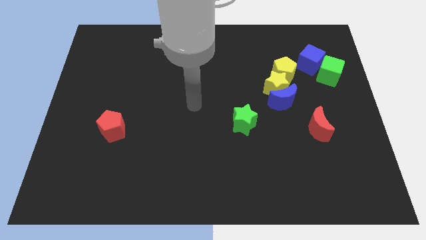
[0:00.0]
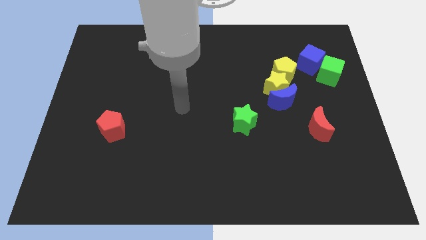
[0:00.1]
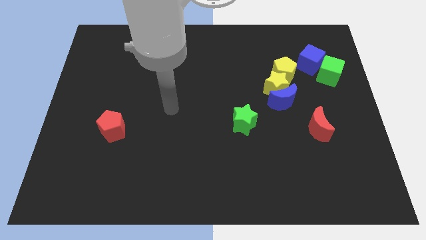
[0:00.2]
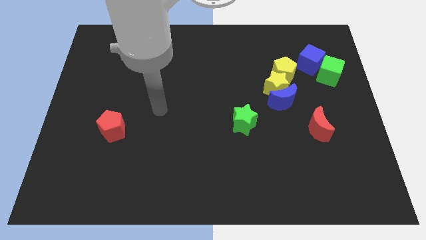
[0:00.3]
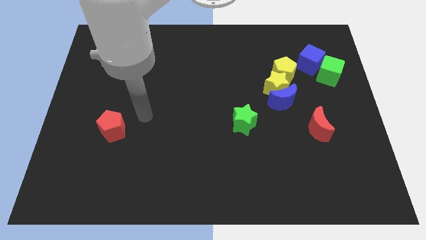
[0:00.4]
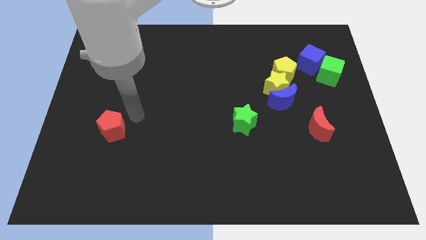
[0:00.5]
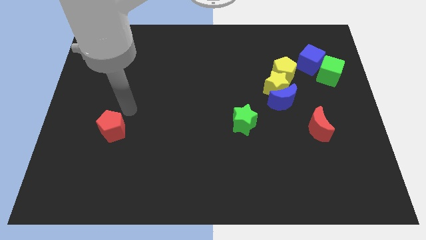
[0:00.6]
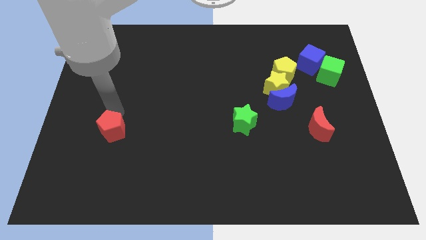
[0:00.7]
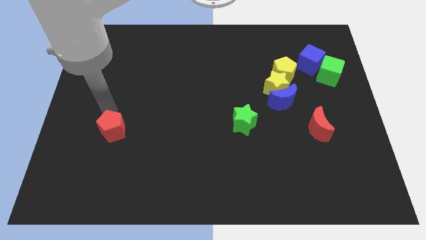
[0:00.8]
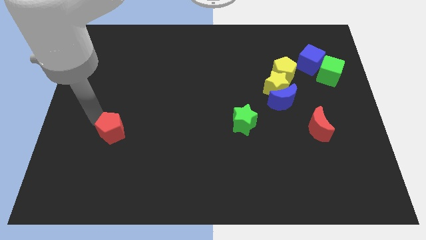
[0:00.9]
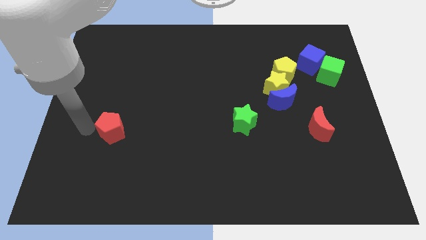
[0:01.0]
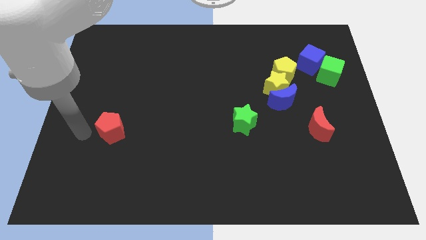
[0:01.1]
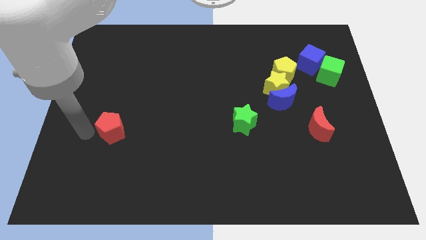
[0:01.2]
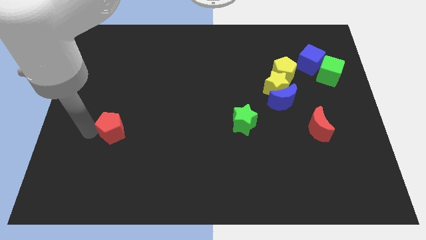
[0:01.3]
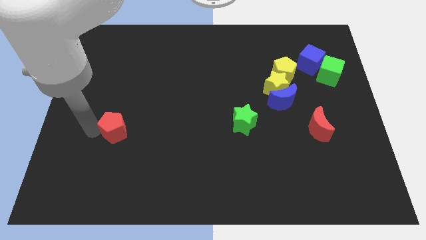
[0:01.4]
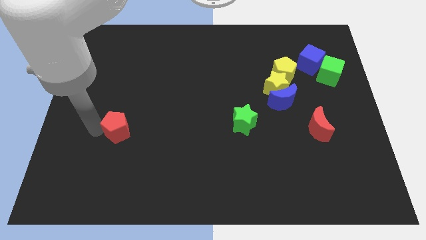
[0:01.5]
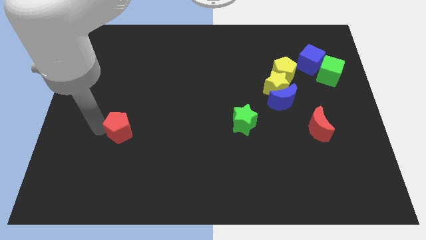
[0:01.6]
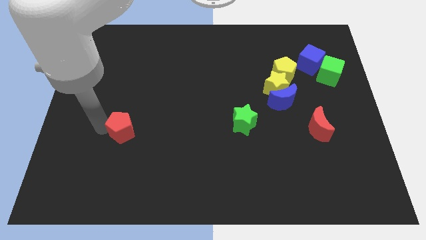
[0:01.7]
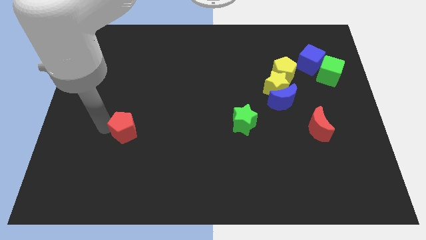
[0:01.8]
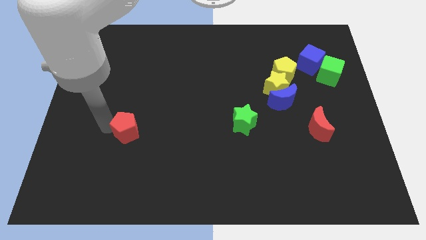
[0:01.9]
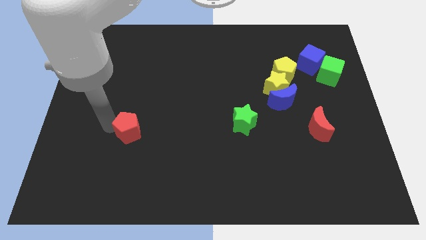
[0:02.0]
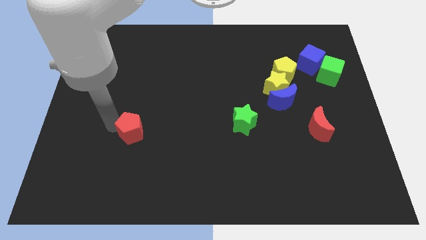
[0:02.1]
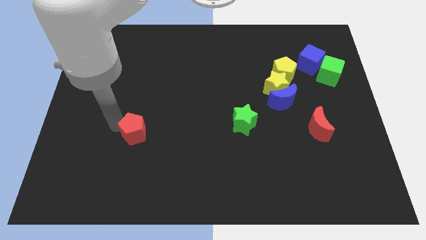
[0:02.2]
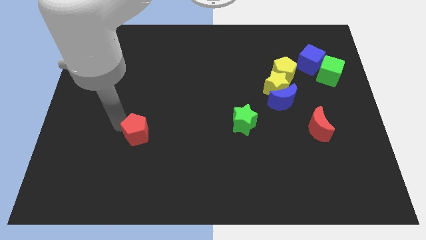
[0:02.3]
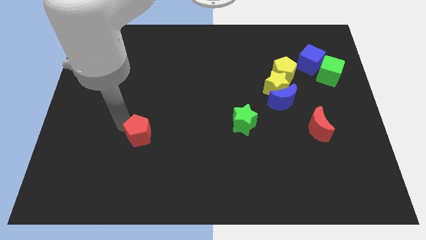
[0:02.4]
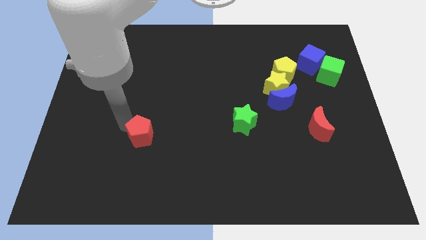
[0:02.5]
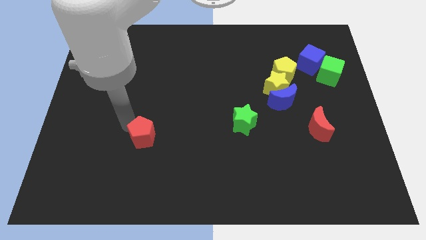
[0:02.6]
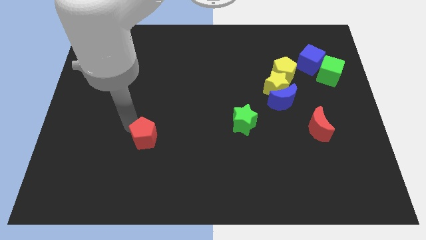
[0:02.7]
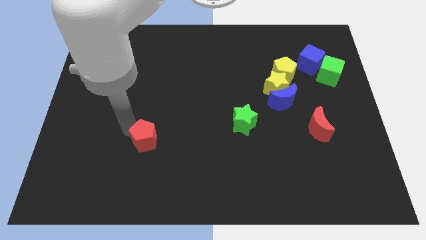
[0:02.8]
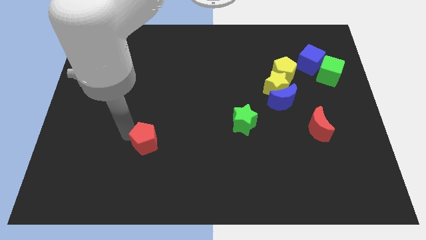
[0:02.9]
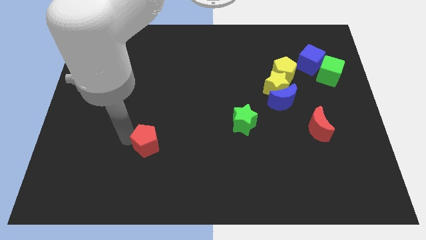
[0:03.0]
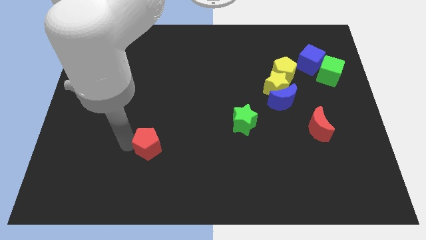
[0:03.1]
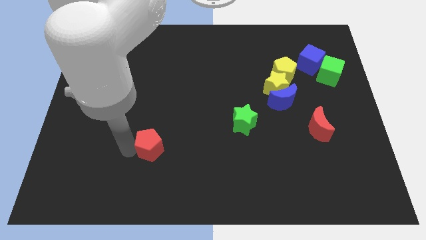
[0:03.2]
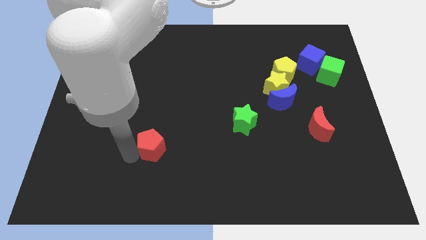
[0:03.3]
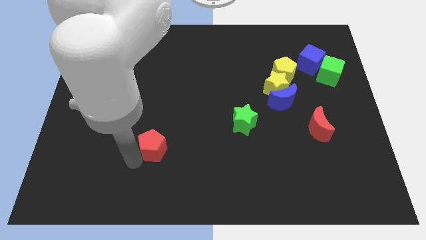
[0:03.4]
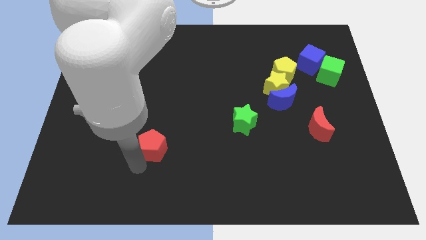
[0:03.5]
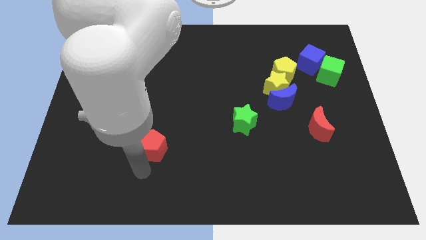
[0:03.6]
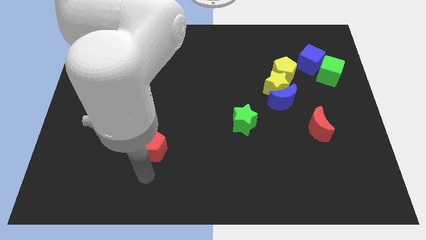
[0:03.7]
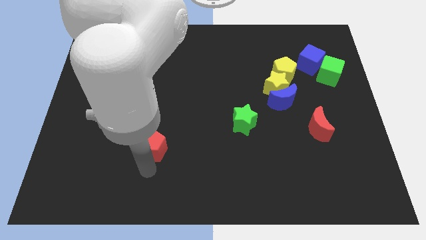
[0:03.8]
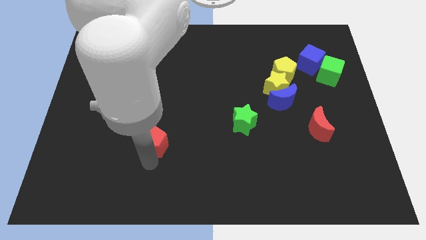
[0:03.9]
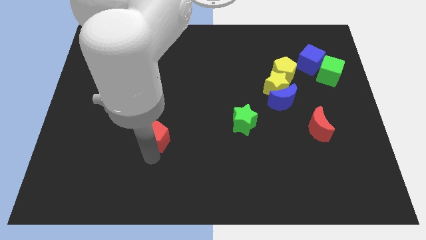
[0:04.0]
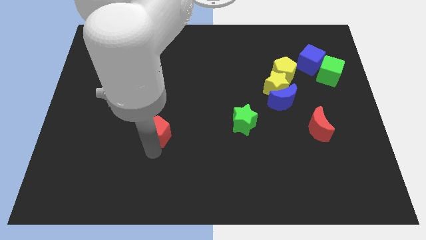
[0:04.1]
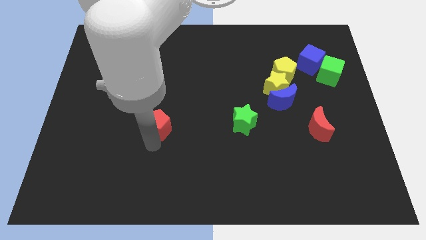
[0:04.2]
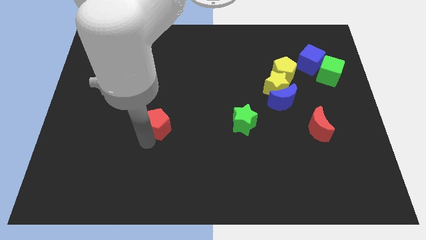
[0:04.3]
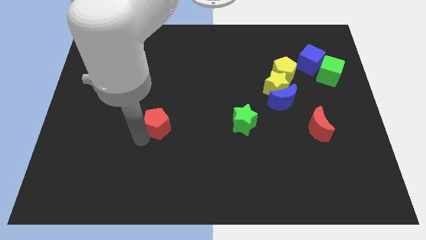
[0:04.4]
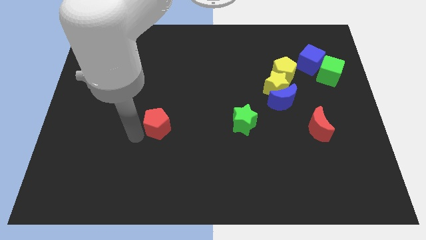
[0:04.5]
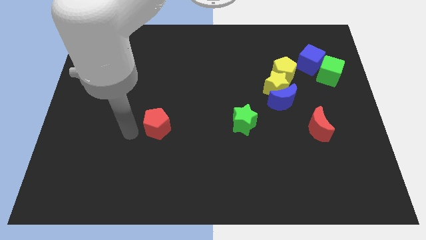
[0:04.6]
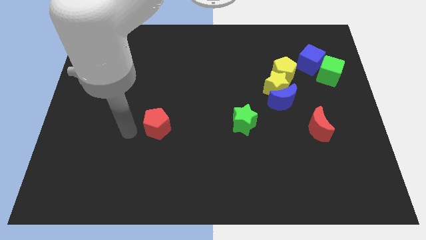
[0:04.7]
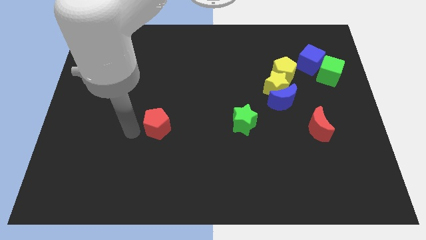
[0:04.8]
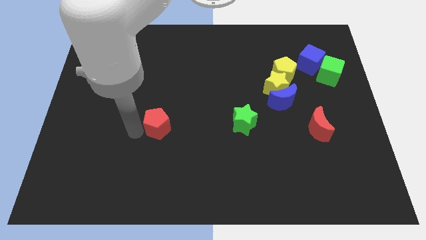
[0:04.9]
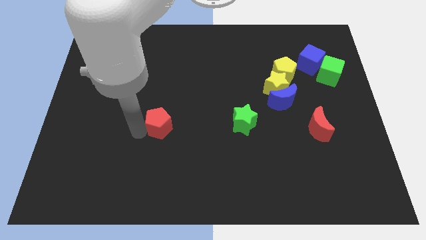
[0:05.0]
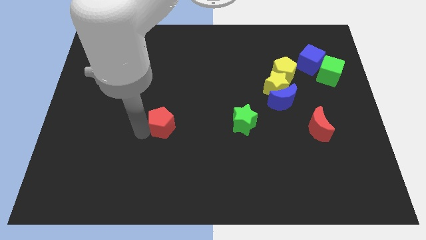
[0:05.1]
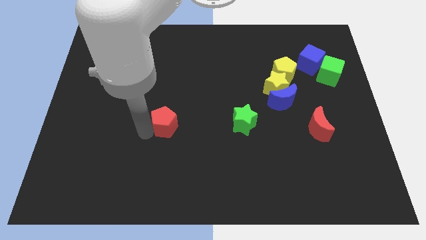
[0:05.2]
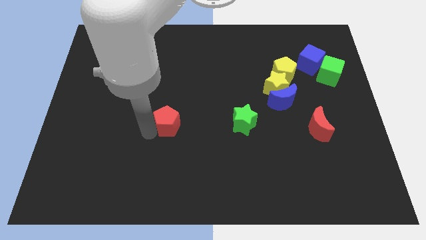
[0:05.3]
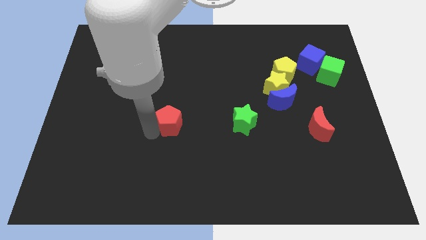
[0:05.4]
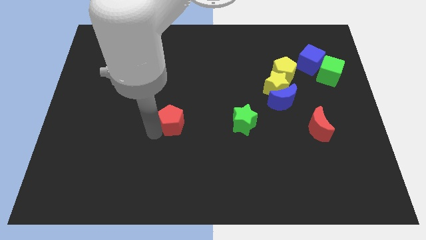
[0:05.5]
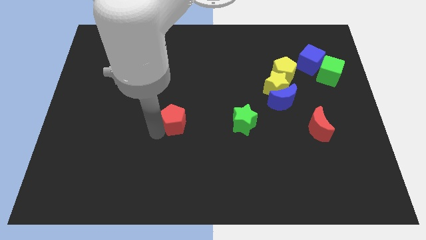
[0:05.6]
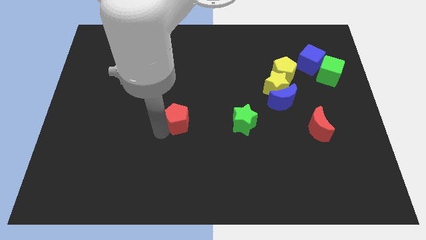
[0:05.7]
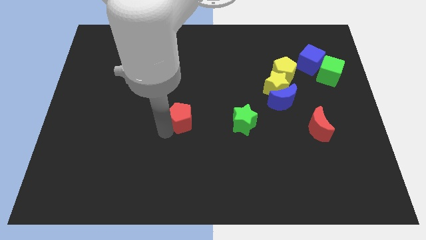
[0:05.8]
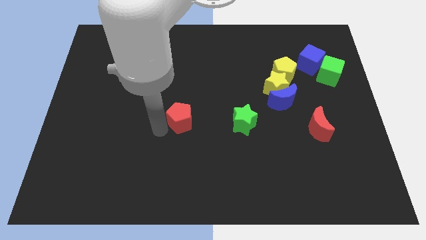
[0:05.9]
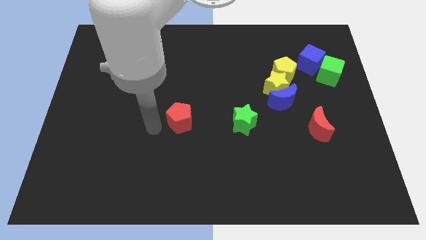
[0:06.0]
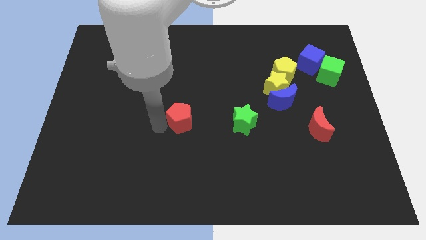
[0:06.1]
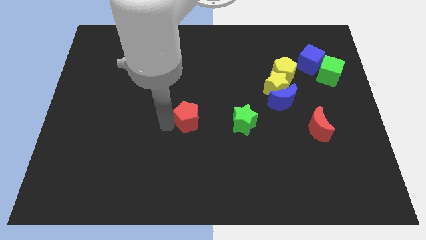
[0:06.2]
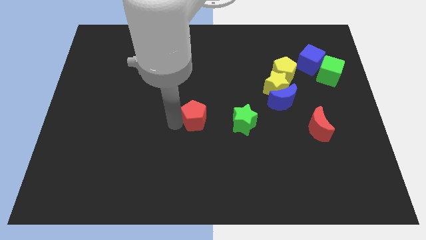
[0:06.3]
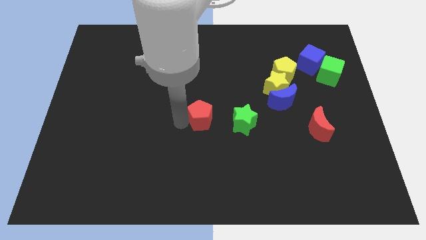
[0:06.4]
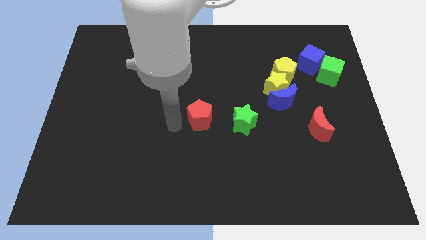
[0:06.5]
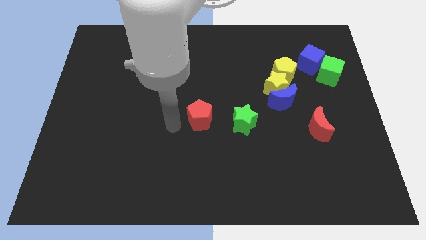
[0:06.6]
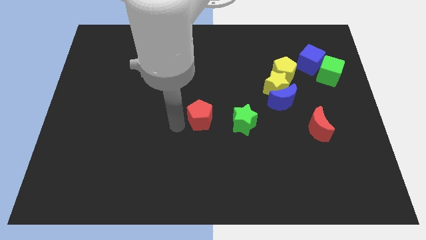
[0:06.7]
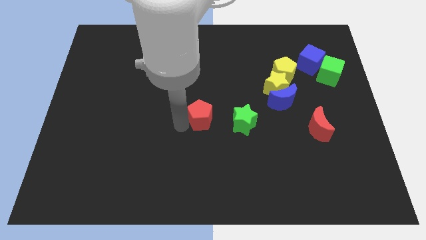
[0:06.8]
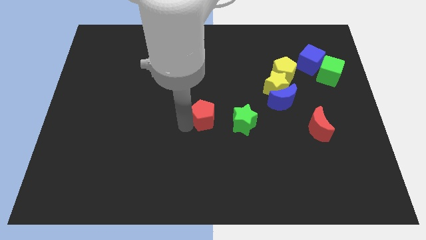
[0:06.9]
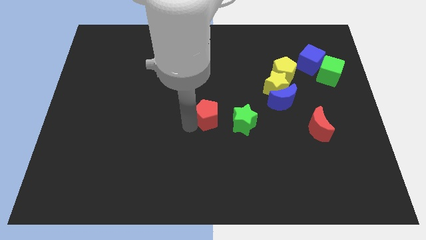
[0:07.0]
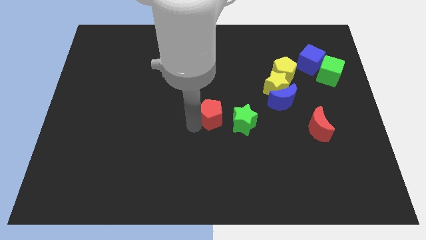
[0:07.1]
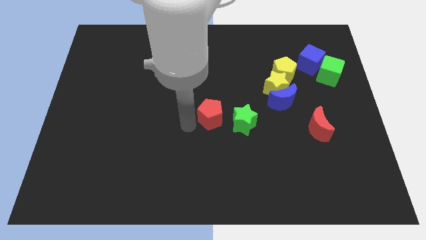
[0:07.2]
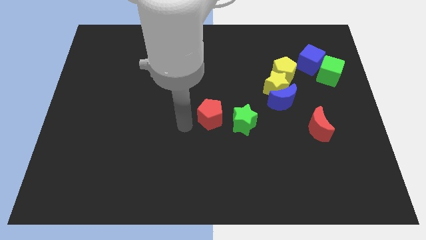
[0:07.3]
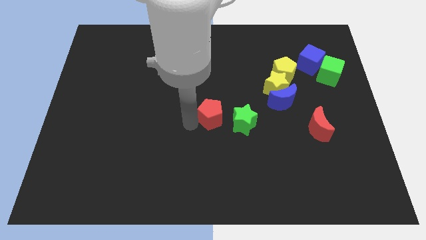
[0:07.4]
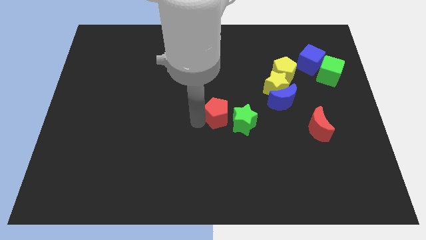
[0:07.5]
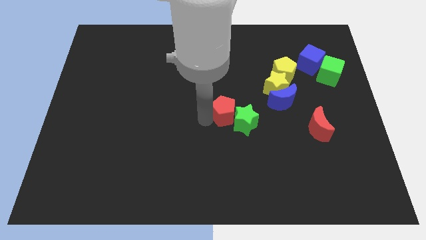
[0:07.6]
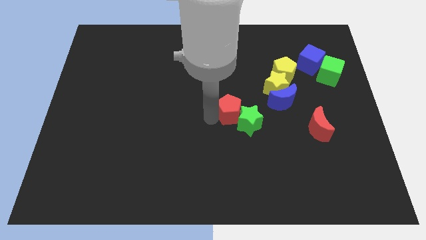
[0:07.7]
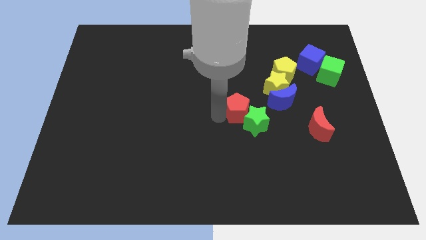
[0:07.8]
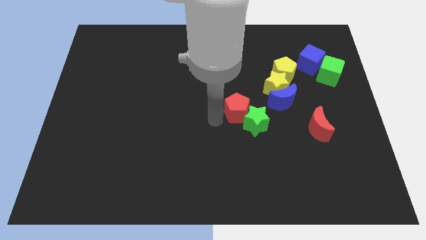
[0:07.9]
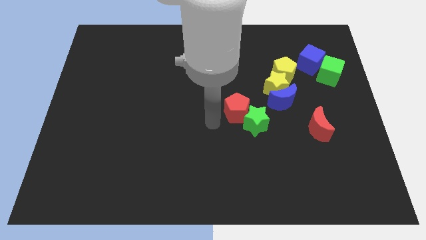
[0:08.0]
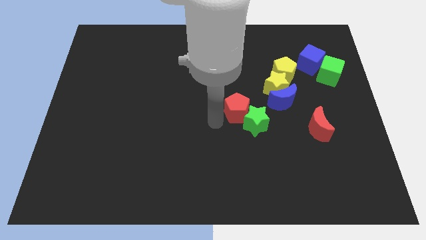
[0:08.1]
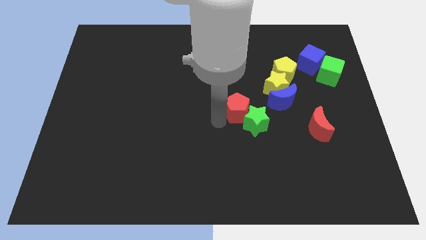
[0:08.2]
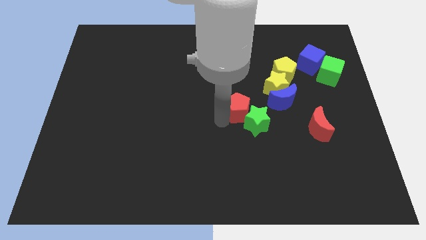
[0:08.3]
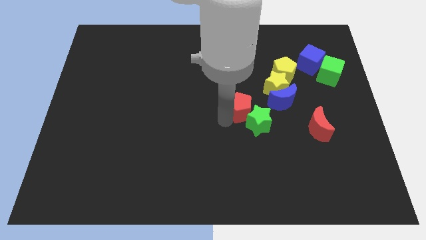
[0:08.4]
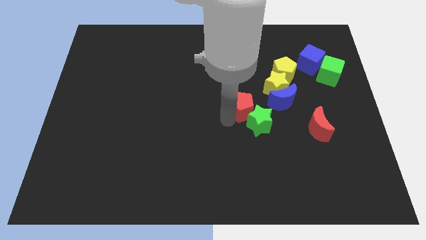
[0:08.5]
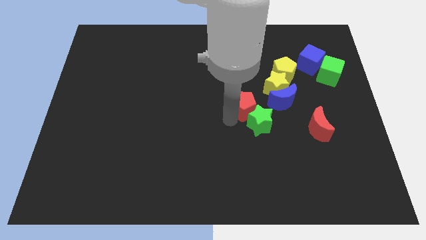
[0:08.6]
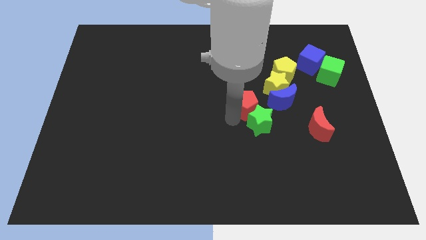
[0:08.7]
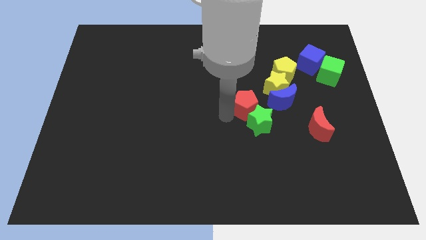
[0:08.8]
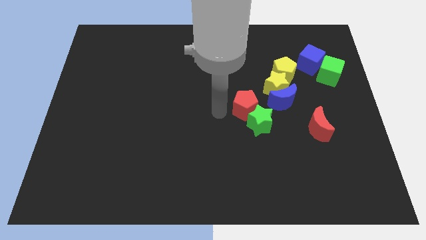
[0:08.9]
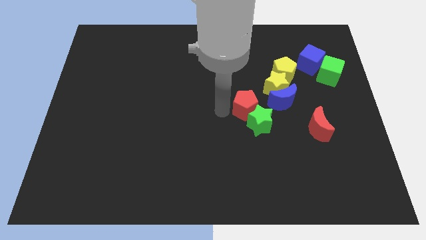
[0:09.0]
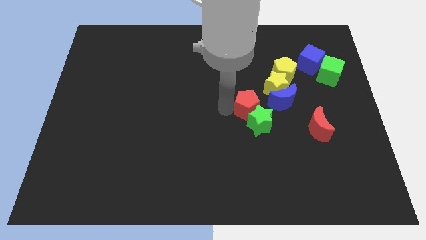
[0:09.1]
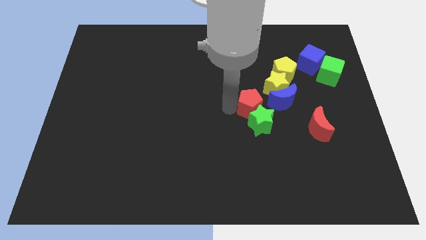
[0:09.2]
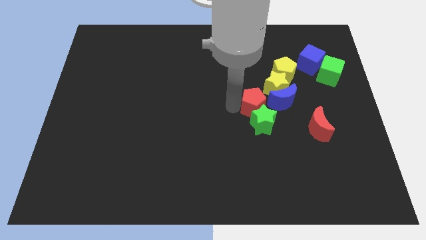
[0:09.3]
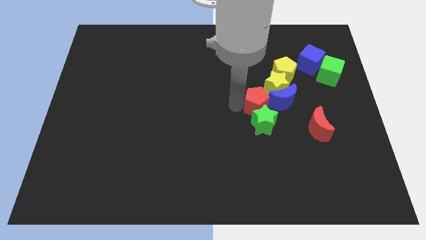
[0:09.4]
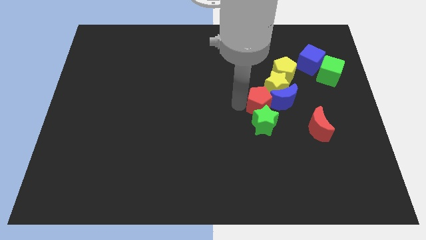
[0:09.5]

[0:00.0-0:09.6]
slide the red pentagon to the blue moon
